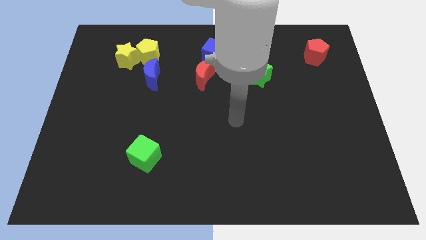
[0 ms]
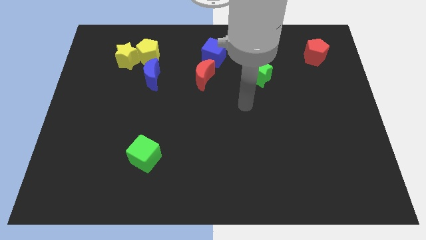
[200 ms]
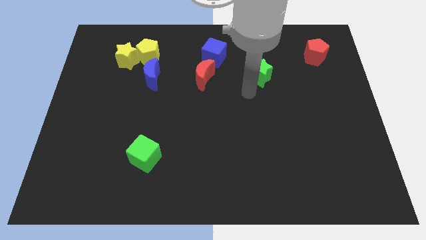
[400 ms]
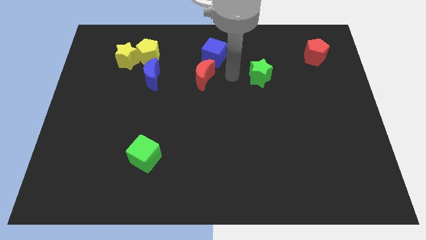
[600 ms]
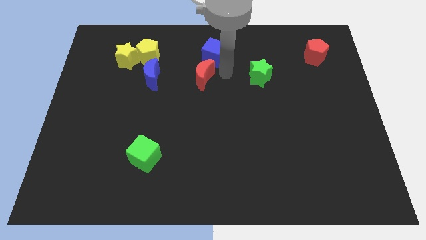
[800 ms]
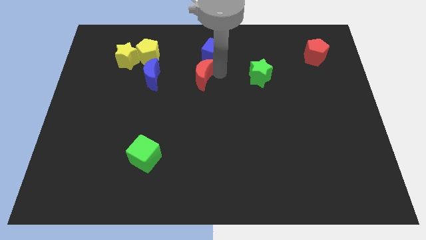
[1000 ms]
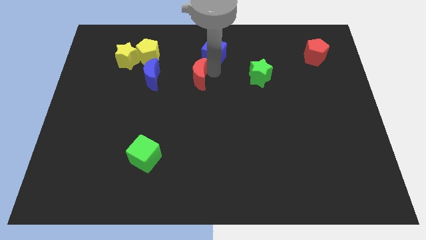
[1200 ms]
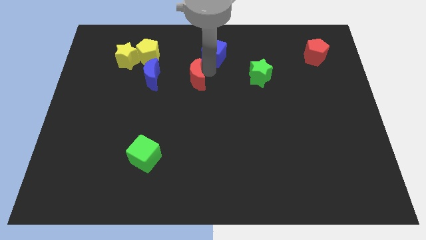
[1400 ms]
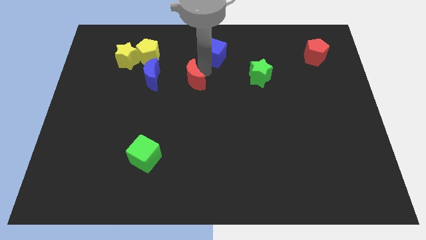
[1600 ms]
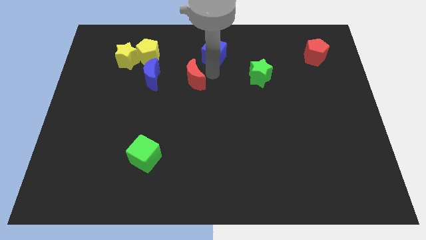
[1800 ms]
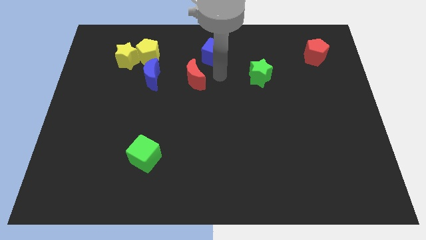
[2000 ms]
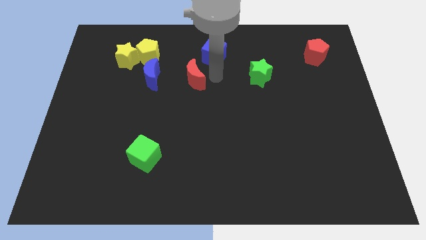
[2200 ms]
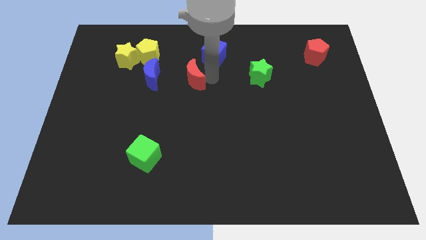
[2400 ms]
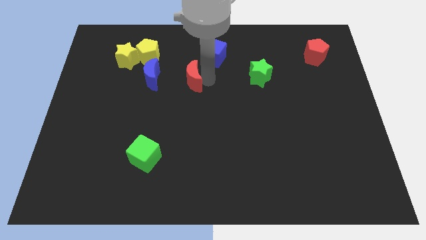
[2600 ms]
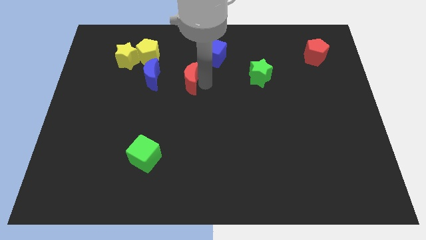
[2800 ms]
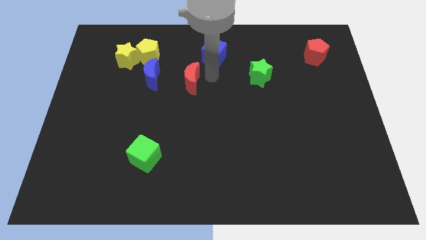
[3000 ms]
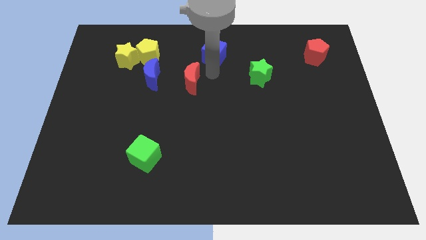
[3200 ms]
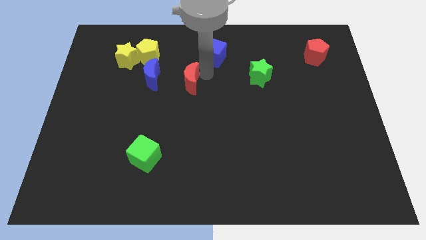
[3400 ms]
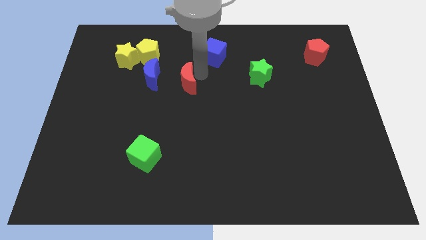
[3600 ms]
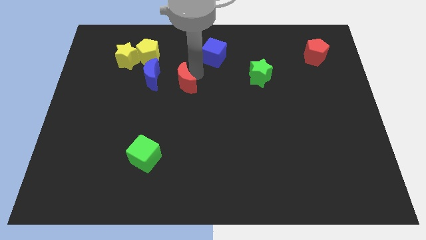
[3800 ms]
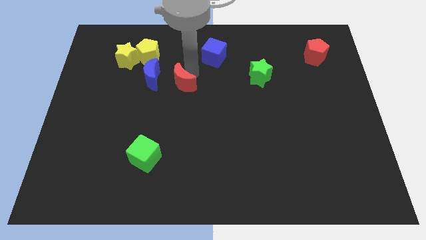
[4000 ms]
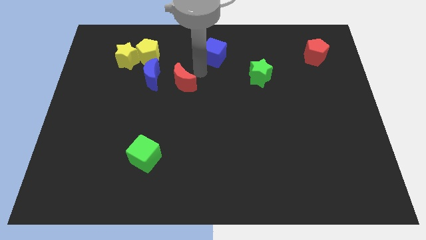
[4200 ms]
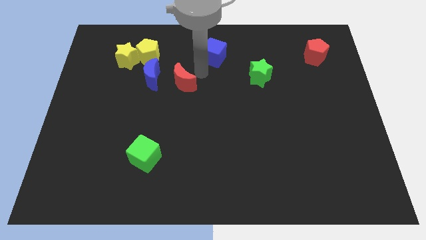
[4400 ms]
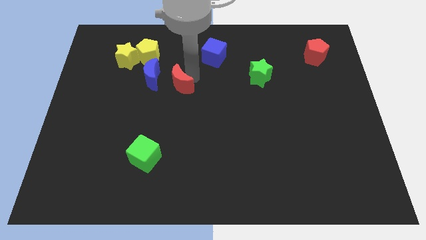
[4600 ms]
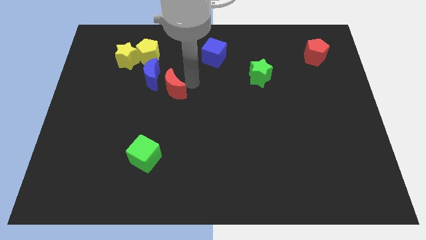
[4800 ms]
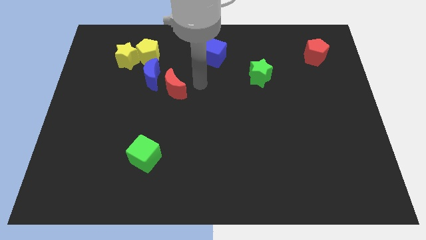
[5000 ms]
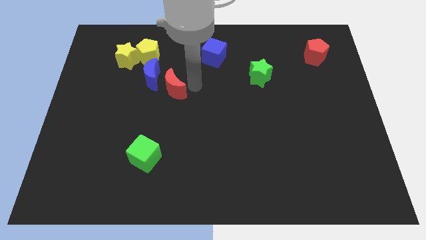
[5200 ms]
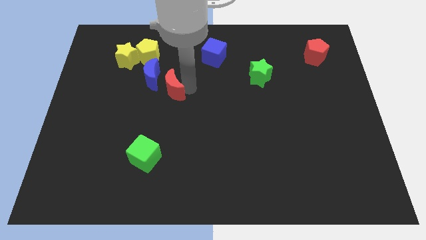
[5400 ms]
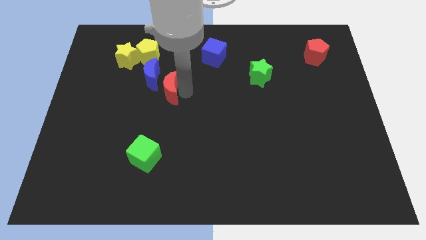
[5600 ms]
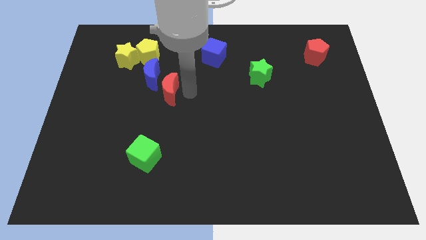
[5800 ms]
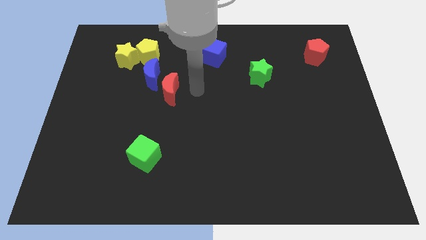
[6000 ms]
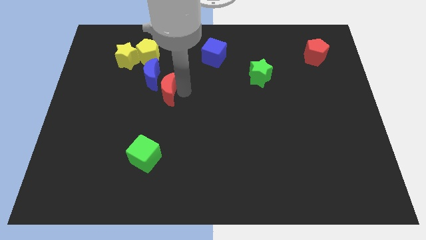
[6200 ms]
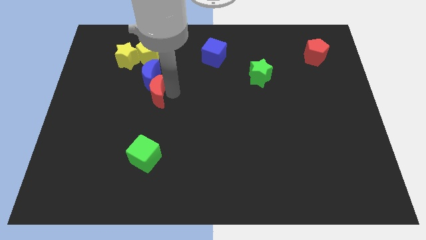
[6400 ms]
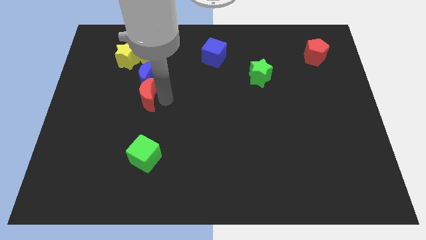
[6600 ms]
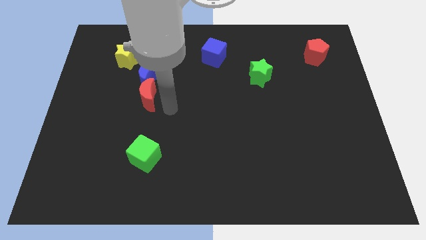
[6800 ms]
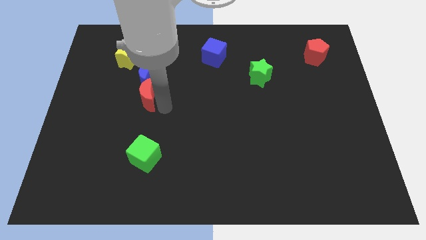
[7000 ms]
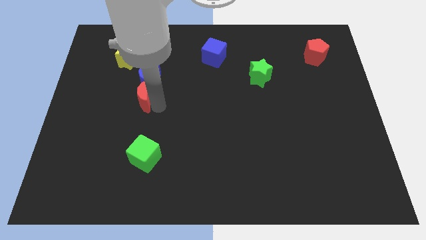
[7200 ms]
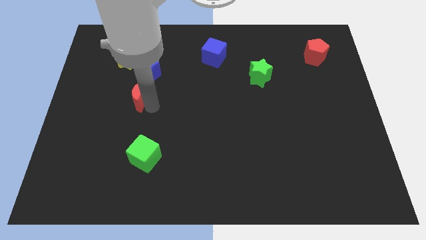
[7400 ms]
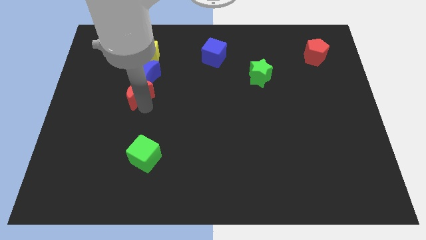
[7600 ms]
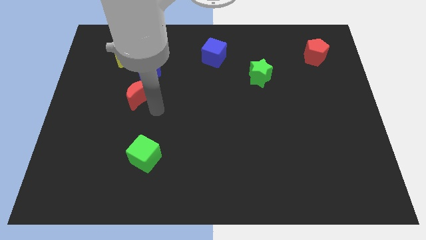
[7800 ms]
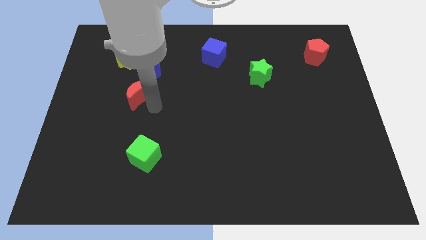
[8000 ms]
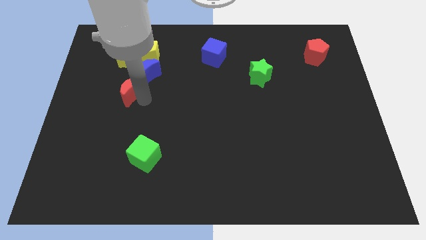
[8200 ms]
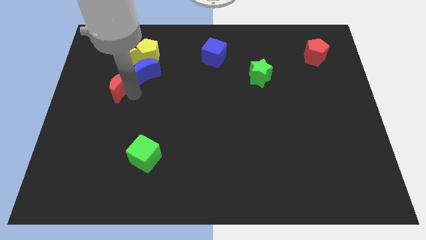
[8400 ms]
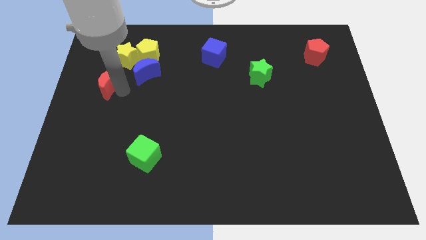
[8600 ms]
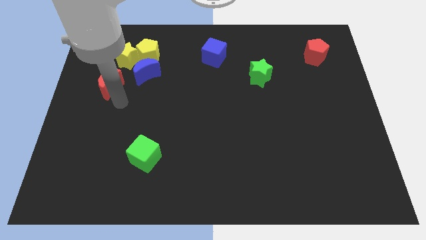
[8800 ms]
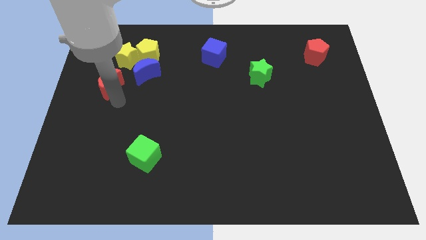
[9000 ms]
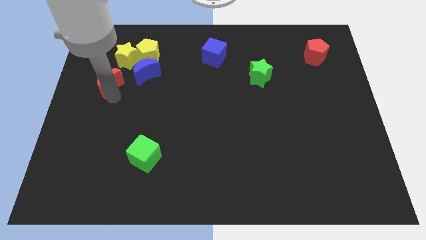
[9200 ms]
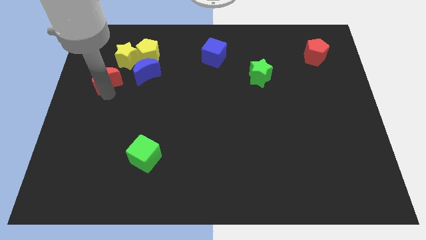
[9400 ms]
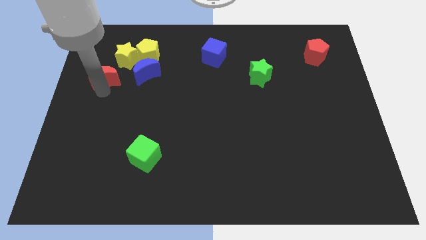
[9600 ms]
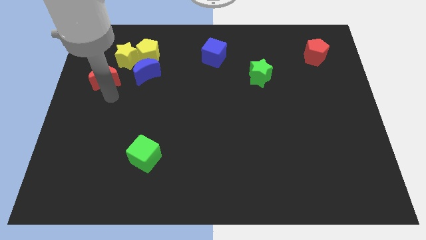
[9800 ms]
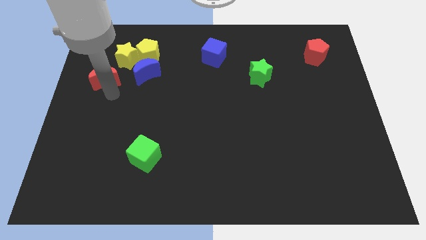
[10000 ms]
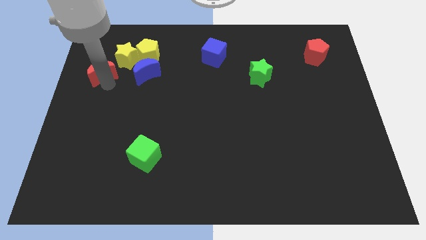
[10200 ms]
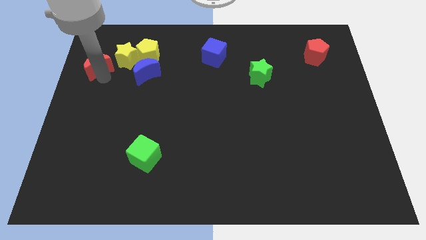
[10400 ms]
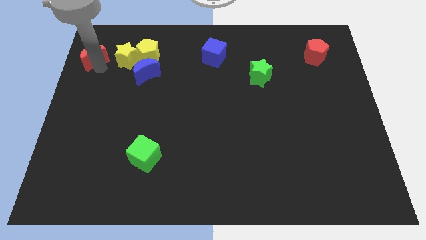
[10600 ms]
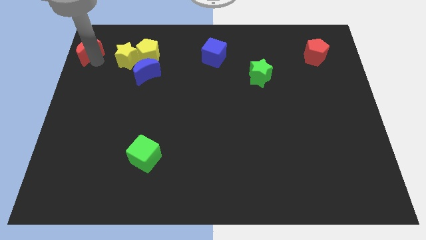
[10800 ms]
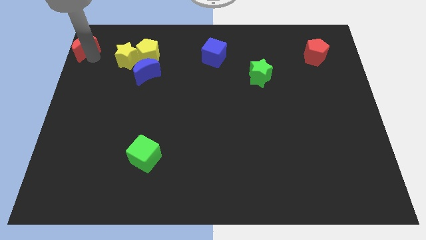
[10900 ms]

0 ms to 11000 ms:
slide the red moon to the top left

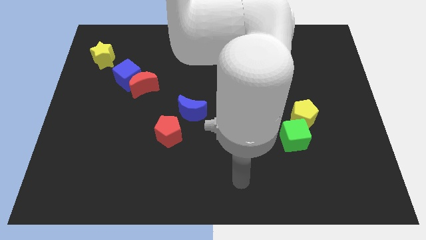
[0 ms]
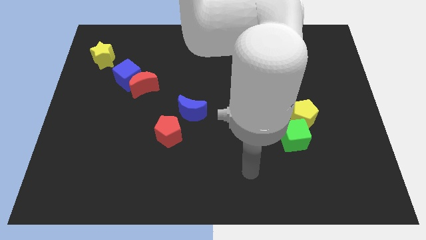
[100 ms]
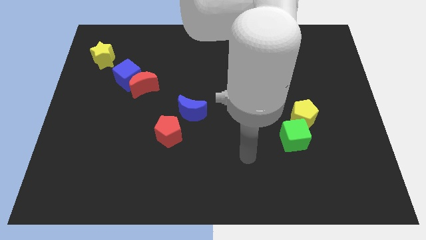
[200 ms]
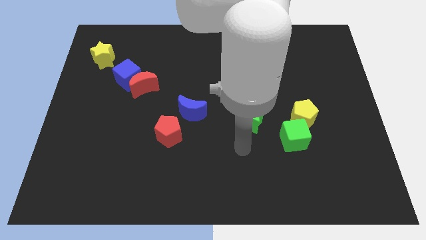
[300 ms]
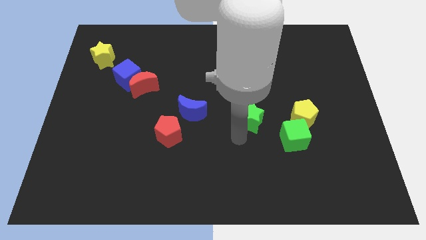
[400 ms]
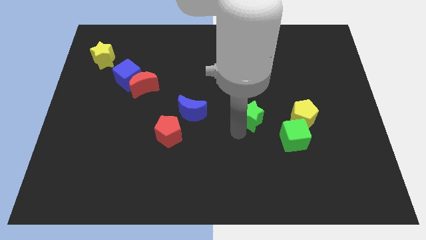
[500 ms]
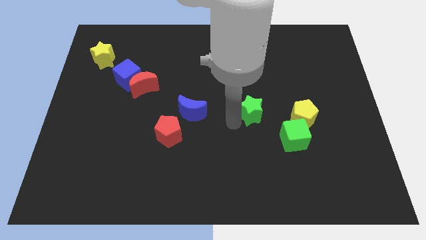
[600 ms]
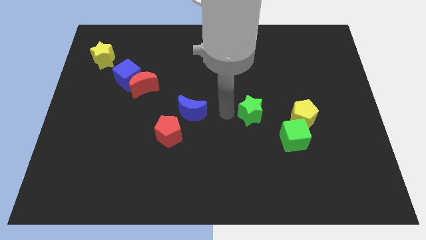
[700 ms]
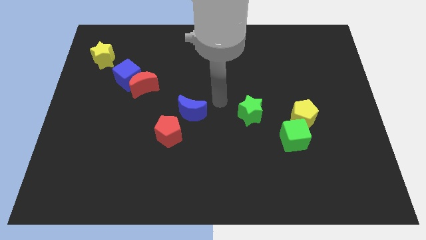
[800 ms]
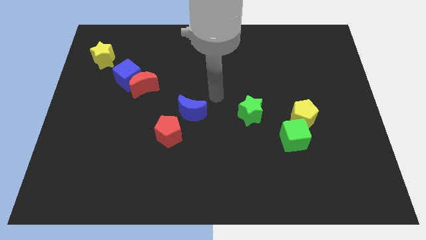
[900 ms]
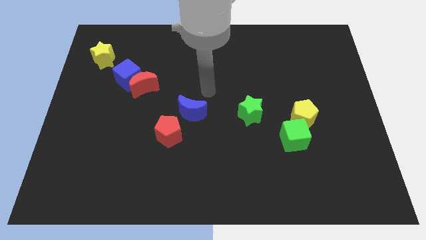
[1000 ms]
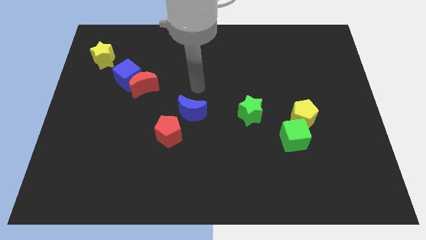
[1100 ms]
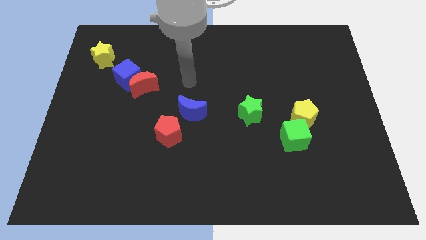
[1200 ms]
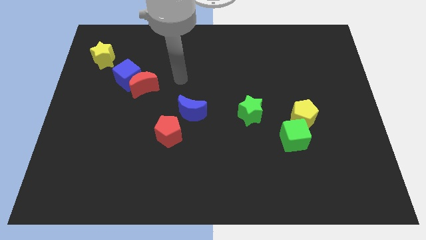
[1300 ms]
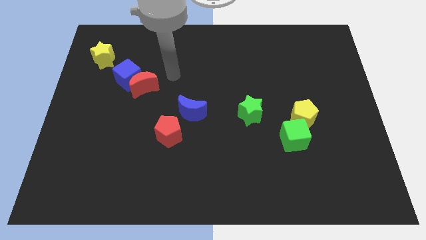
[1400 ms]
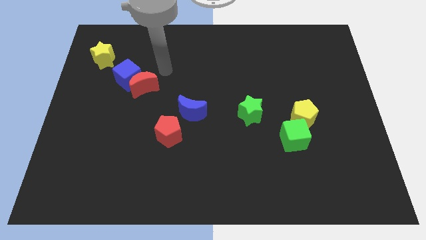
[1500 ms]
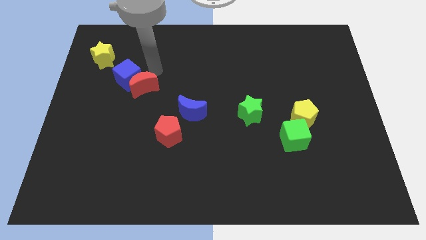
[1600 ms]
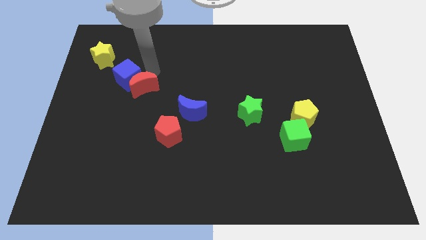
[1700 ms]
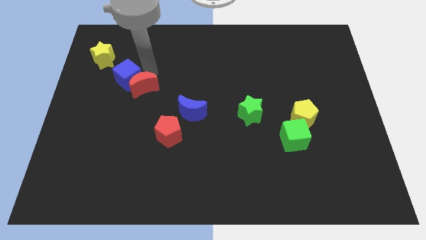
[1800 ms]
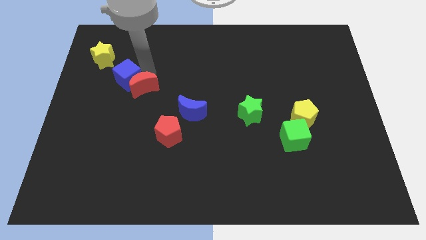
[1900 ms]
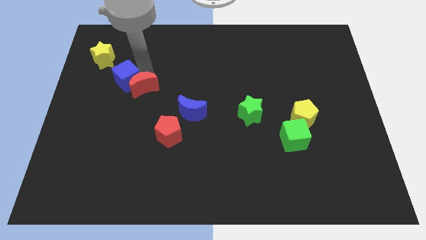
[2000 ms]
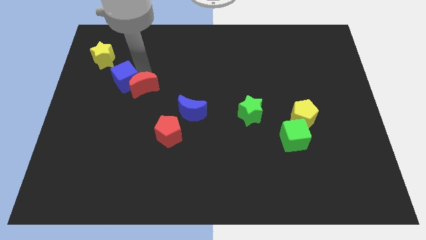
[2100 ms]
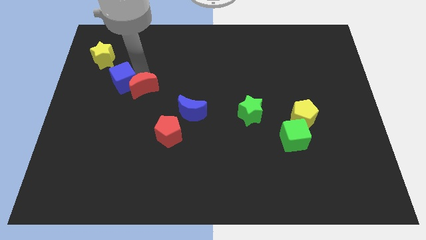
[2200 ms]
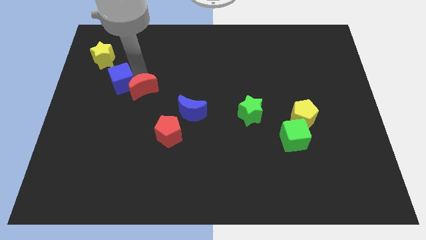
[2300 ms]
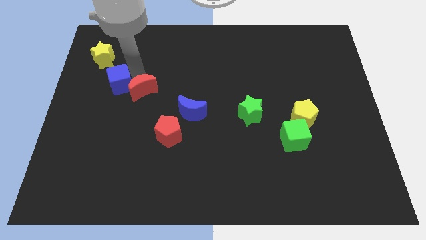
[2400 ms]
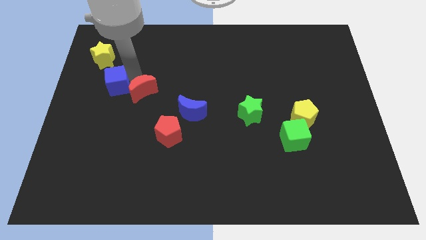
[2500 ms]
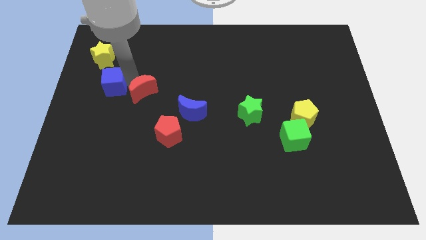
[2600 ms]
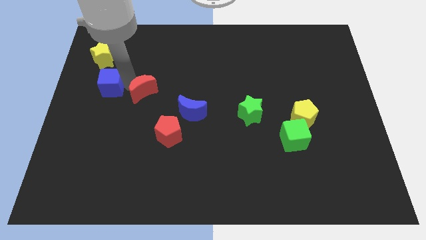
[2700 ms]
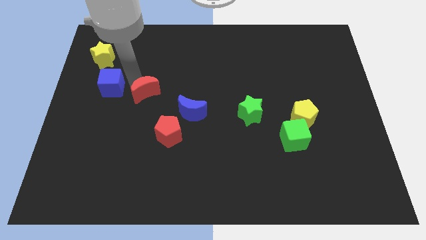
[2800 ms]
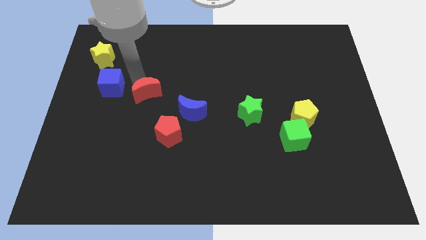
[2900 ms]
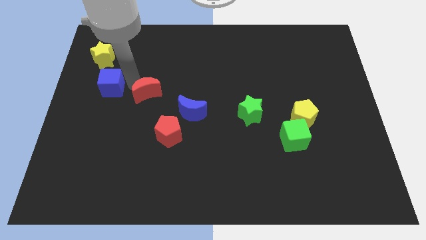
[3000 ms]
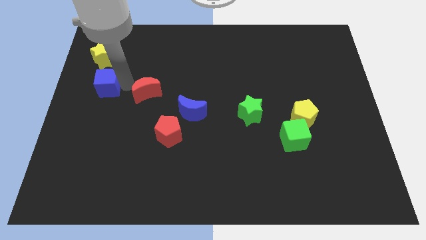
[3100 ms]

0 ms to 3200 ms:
move the blue cube to the center left
